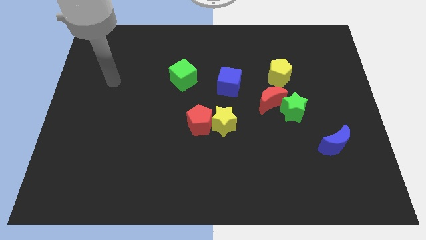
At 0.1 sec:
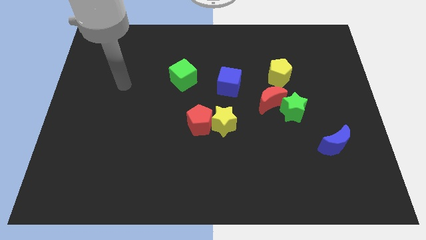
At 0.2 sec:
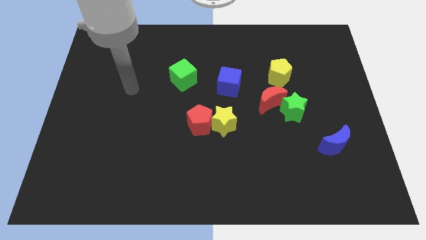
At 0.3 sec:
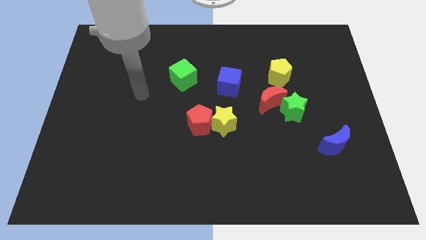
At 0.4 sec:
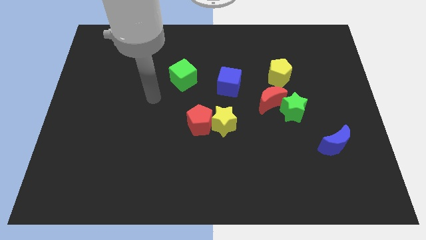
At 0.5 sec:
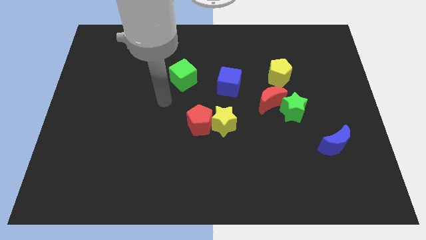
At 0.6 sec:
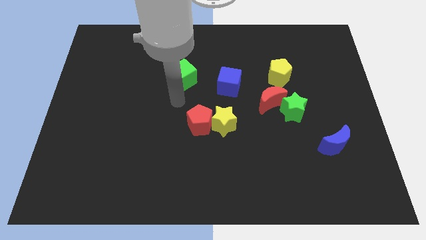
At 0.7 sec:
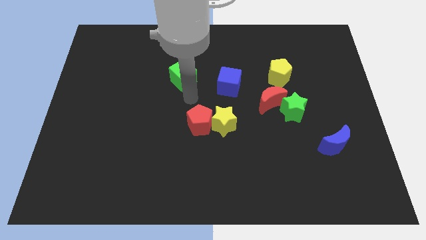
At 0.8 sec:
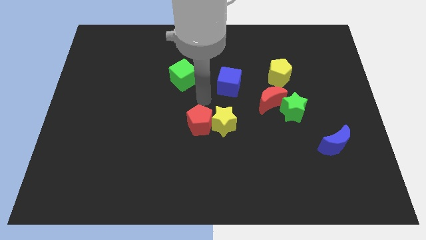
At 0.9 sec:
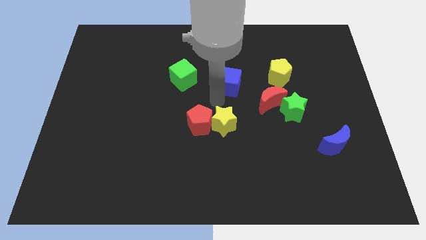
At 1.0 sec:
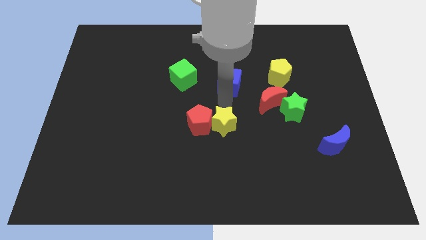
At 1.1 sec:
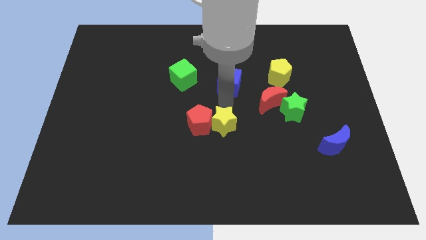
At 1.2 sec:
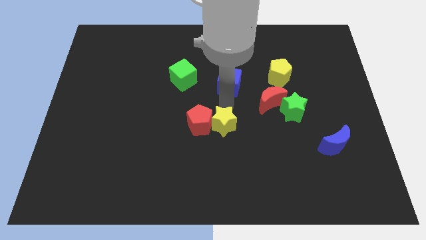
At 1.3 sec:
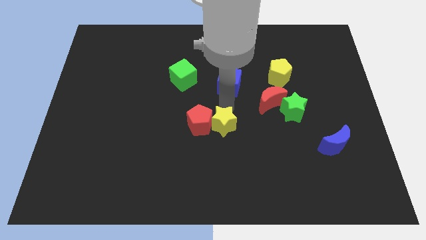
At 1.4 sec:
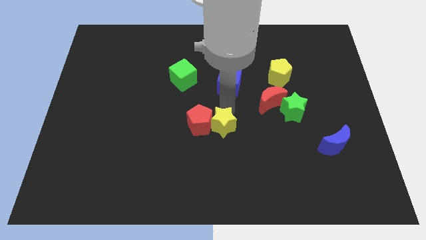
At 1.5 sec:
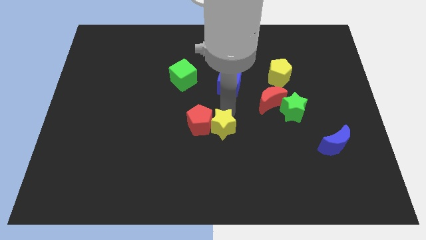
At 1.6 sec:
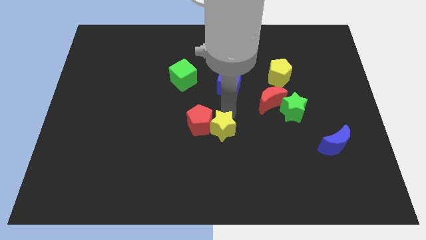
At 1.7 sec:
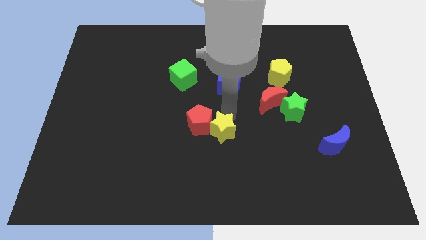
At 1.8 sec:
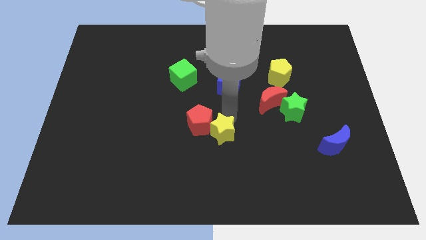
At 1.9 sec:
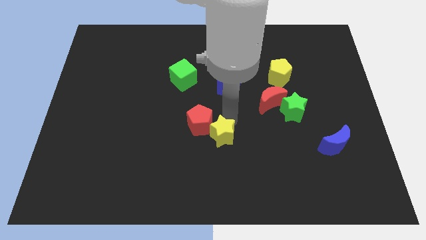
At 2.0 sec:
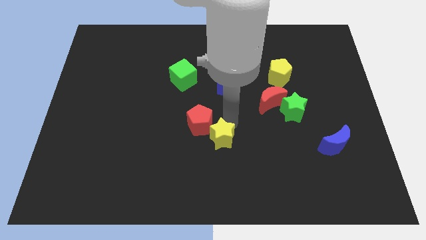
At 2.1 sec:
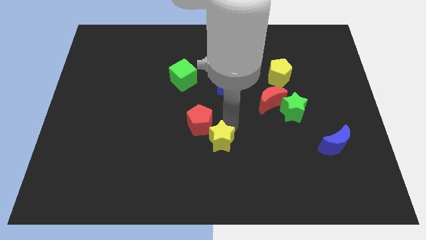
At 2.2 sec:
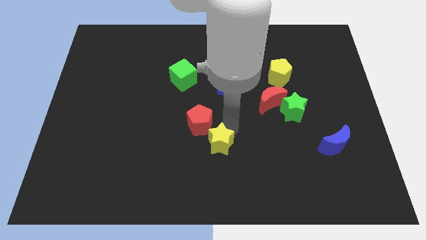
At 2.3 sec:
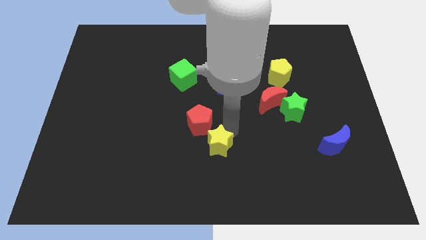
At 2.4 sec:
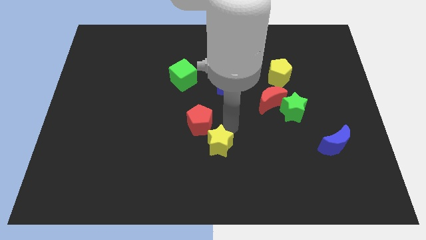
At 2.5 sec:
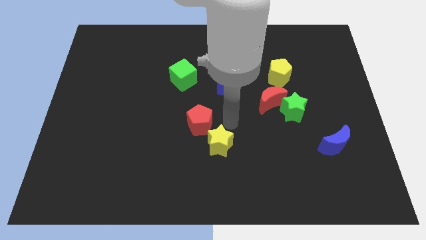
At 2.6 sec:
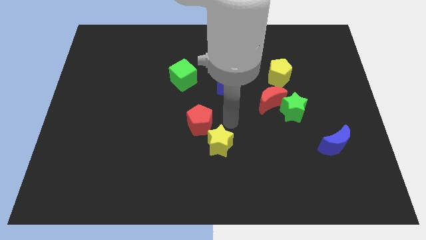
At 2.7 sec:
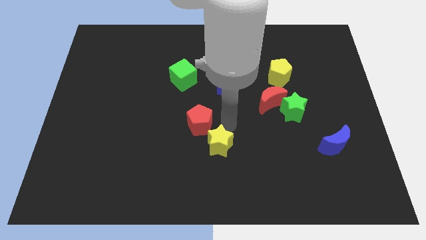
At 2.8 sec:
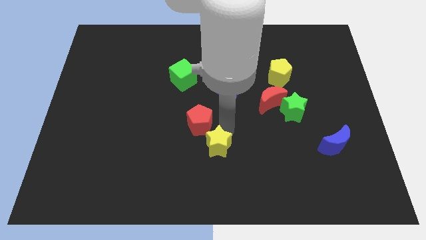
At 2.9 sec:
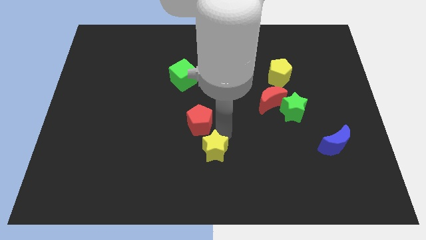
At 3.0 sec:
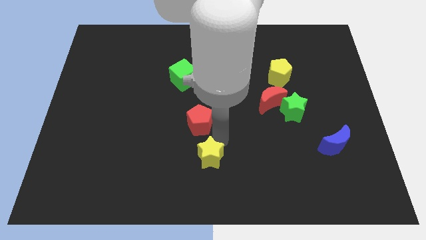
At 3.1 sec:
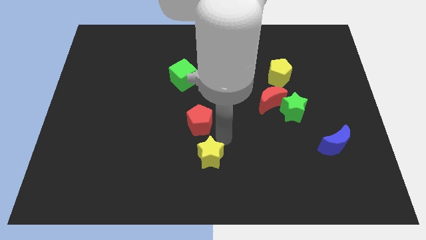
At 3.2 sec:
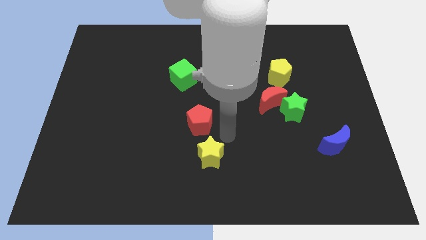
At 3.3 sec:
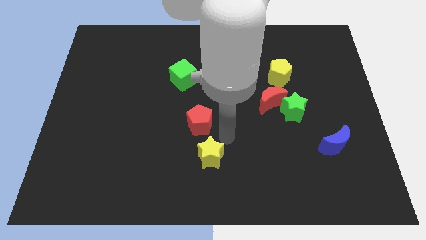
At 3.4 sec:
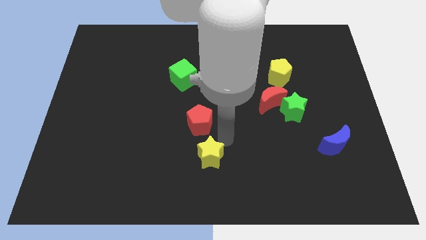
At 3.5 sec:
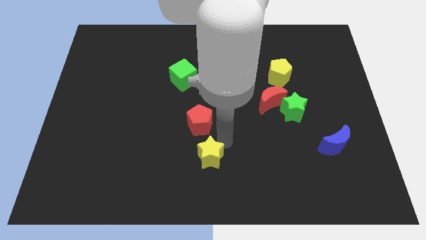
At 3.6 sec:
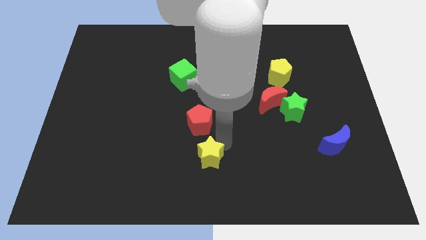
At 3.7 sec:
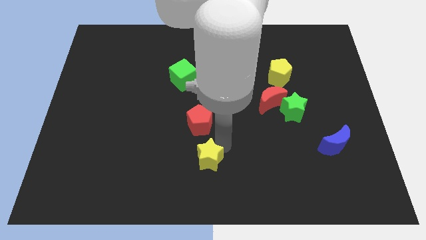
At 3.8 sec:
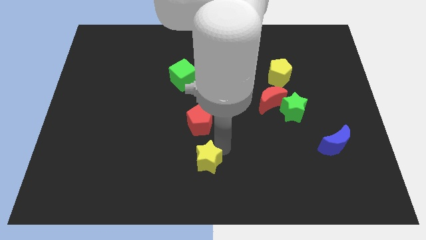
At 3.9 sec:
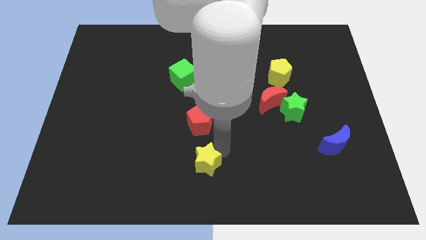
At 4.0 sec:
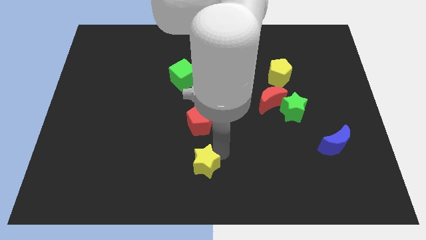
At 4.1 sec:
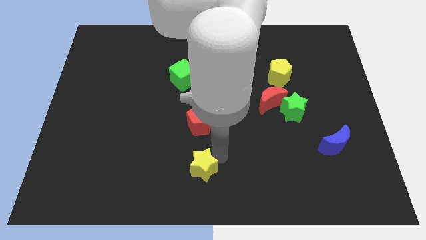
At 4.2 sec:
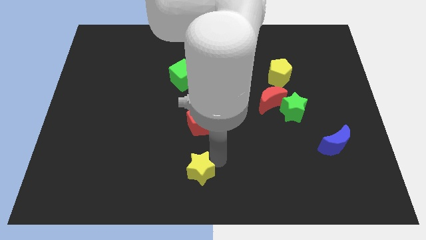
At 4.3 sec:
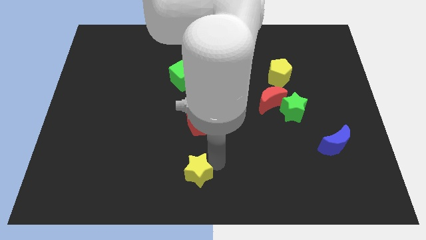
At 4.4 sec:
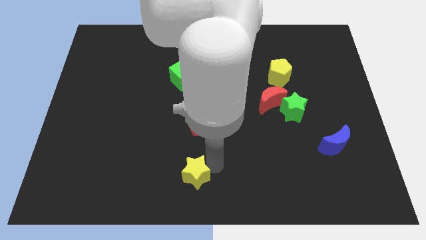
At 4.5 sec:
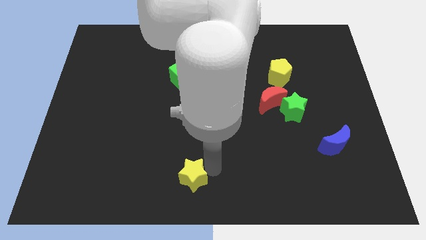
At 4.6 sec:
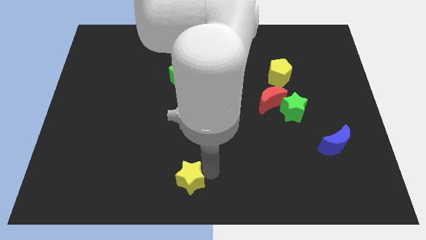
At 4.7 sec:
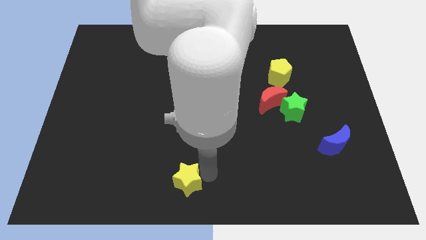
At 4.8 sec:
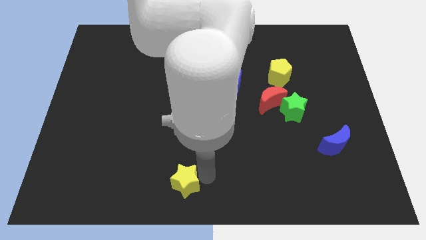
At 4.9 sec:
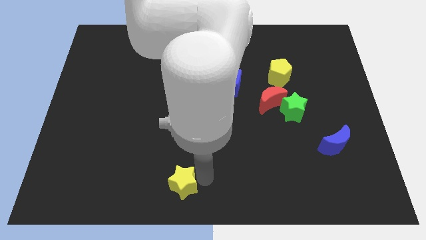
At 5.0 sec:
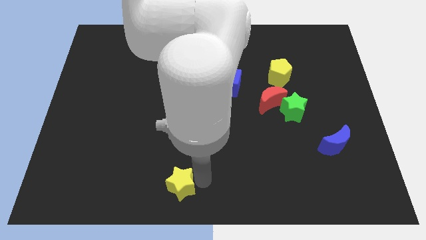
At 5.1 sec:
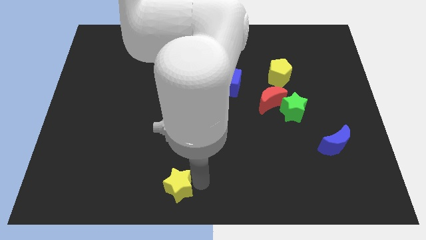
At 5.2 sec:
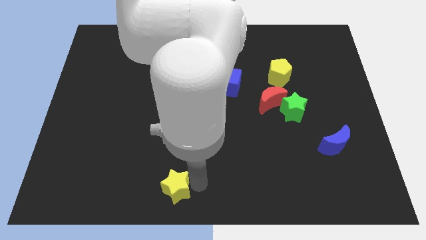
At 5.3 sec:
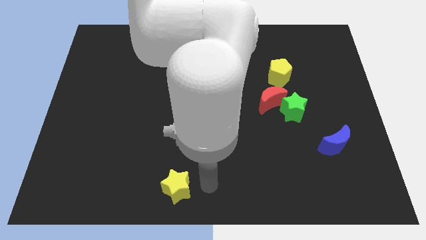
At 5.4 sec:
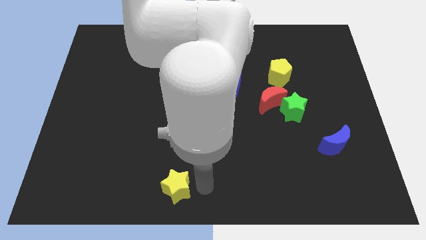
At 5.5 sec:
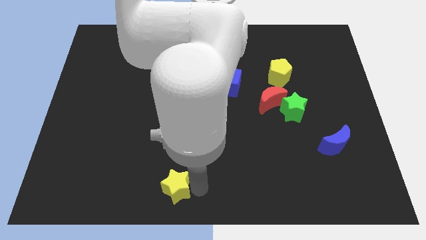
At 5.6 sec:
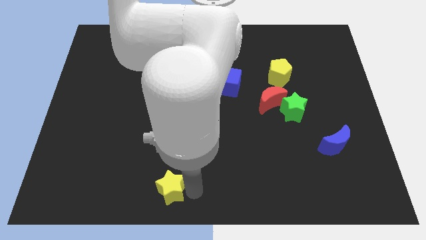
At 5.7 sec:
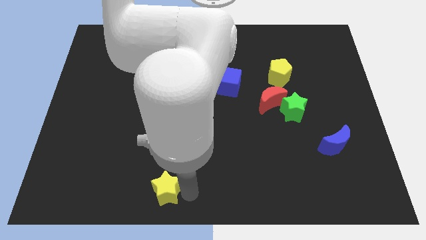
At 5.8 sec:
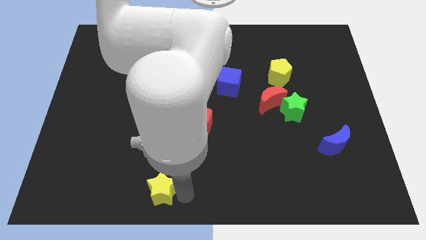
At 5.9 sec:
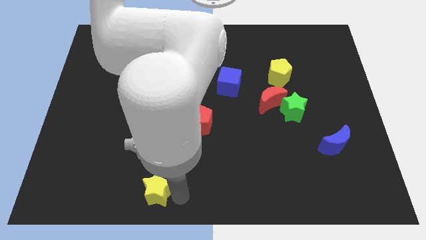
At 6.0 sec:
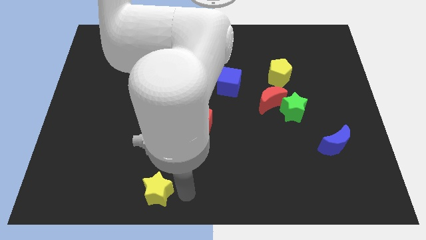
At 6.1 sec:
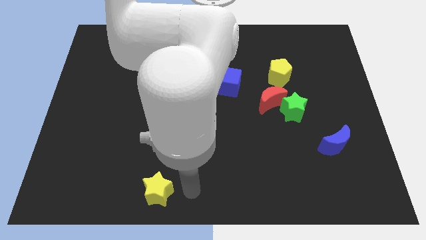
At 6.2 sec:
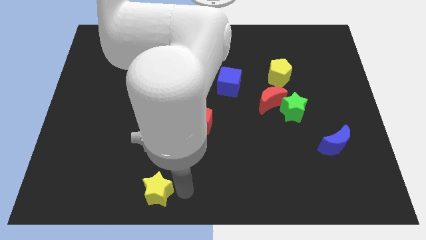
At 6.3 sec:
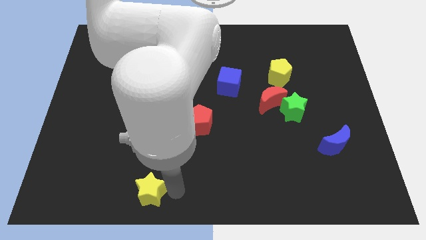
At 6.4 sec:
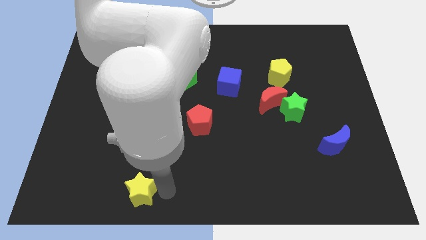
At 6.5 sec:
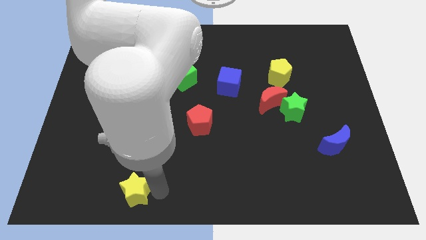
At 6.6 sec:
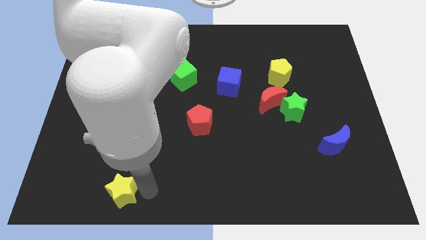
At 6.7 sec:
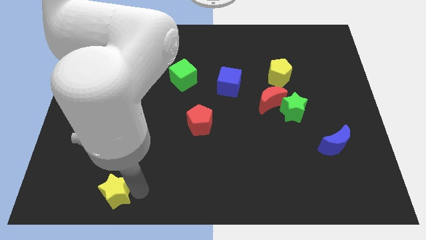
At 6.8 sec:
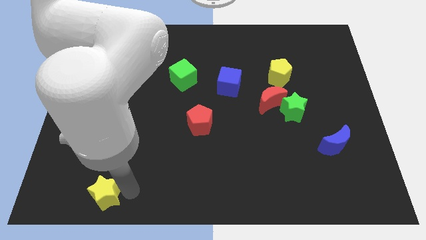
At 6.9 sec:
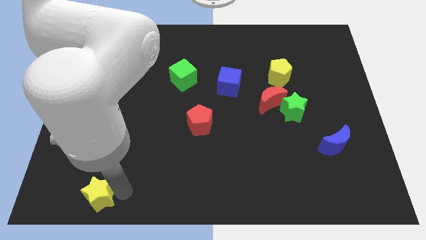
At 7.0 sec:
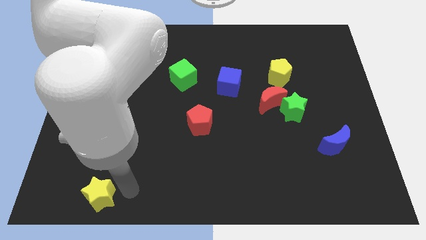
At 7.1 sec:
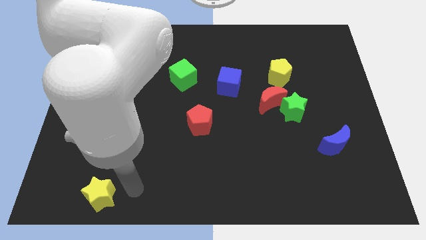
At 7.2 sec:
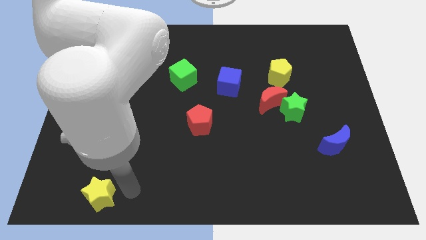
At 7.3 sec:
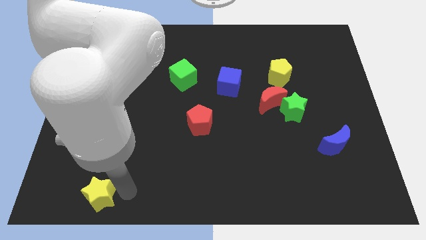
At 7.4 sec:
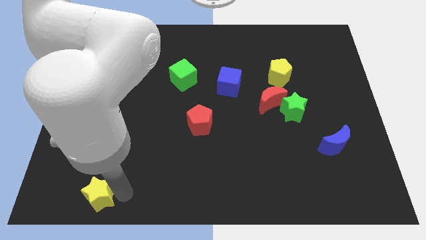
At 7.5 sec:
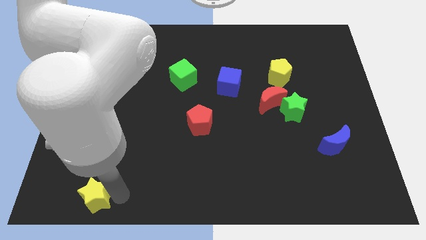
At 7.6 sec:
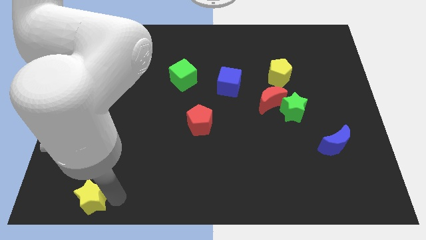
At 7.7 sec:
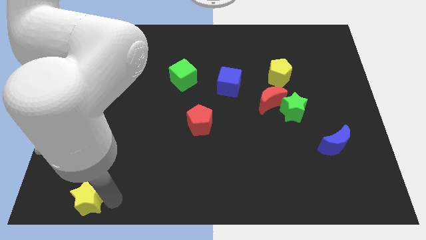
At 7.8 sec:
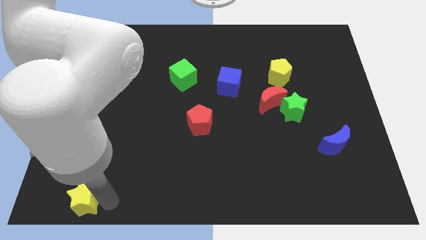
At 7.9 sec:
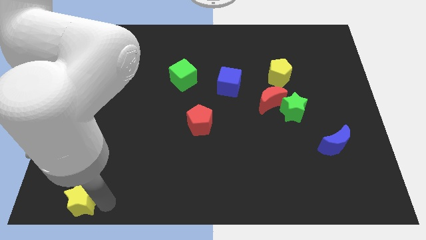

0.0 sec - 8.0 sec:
push the yellow star to the bottom left
